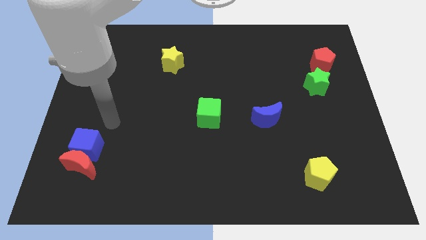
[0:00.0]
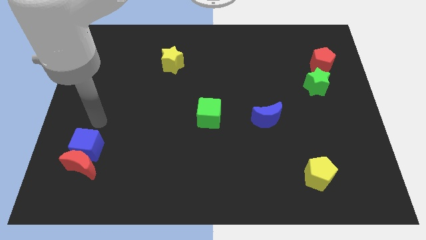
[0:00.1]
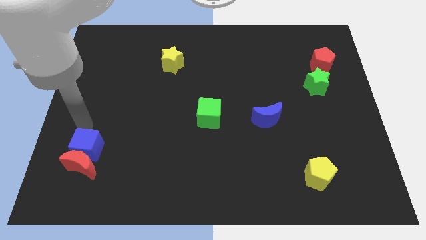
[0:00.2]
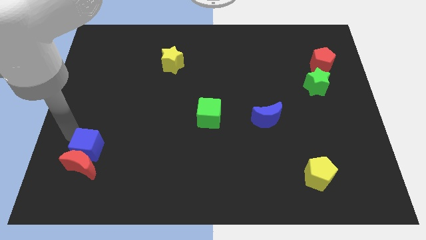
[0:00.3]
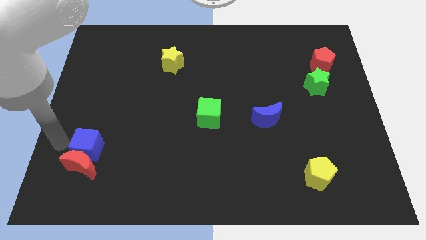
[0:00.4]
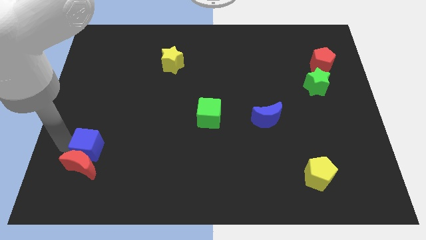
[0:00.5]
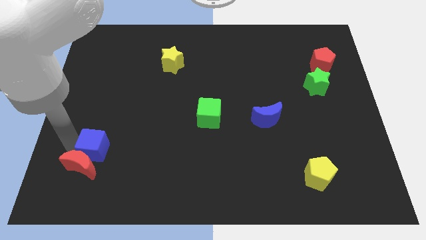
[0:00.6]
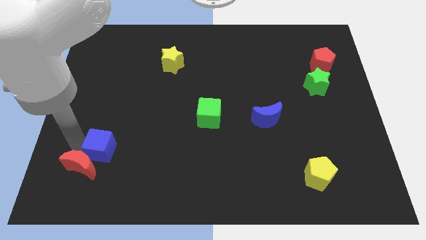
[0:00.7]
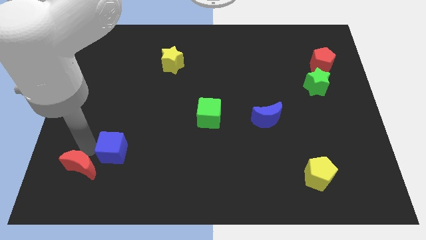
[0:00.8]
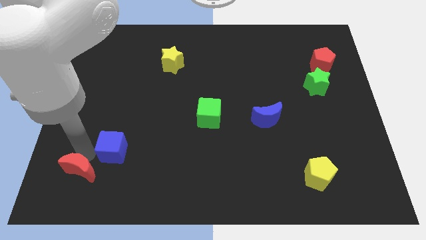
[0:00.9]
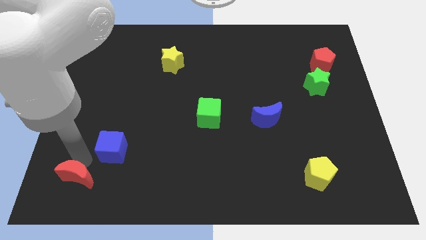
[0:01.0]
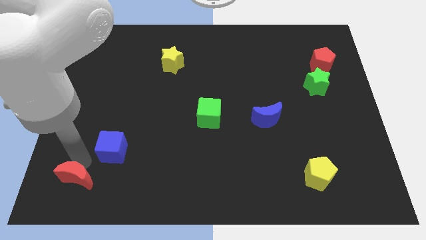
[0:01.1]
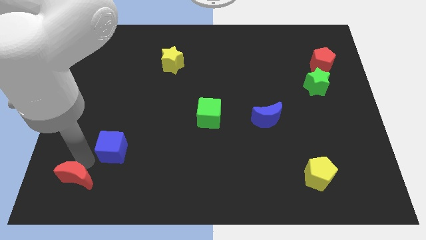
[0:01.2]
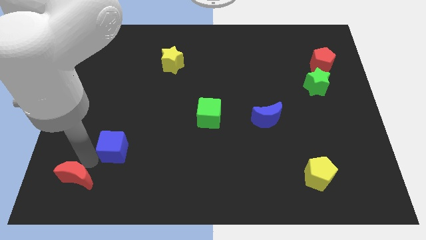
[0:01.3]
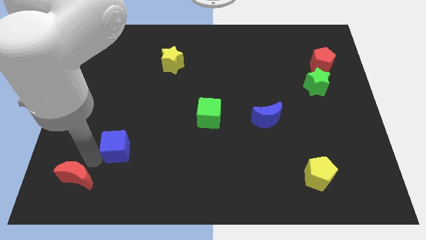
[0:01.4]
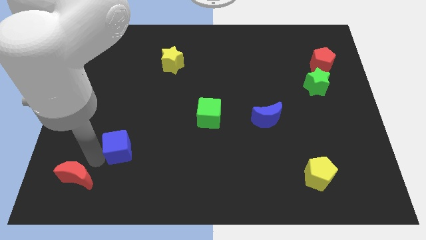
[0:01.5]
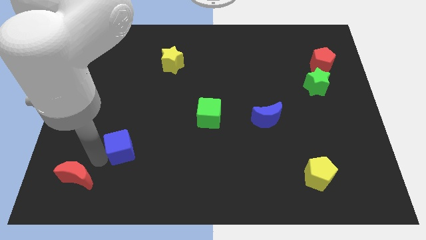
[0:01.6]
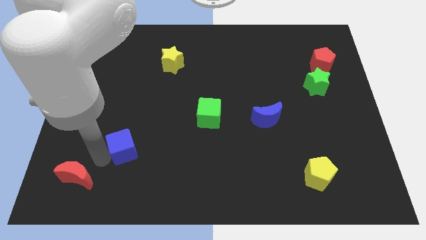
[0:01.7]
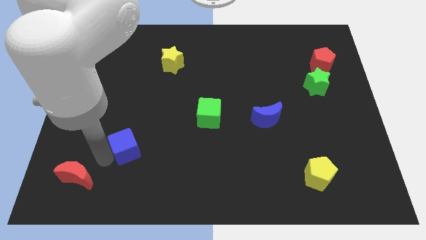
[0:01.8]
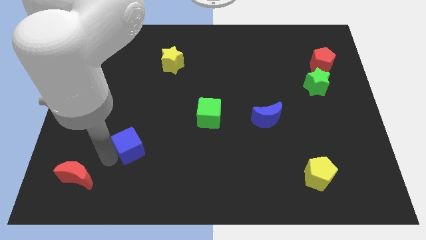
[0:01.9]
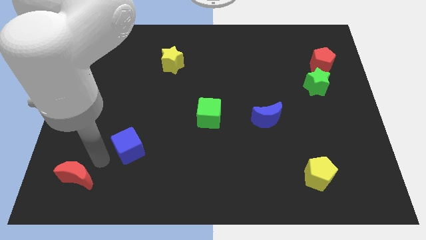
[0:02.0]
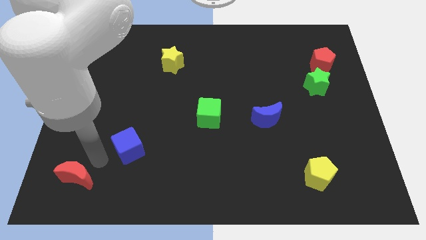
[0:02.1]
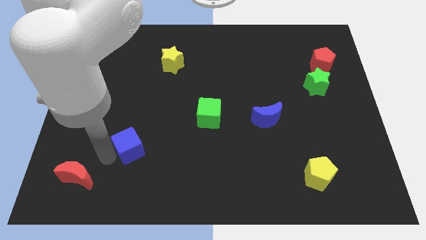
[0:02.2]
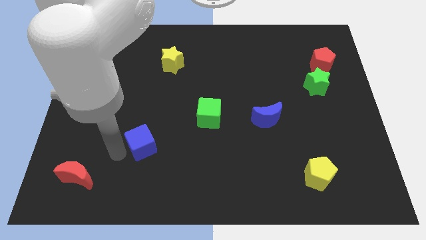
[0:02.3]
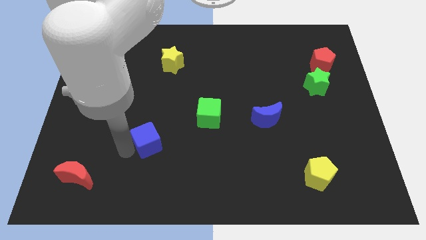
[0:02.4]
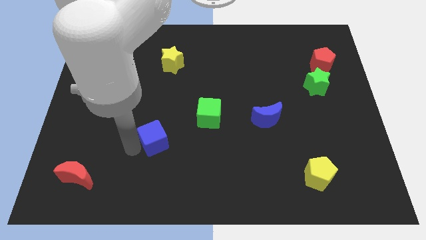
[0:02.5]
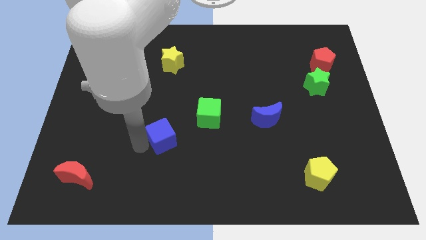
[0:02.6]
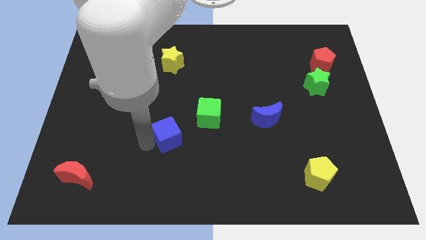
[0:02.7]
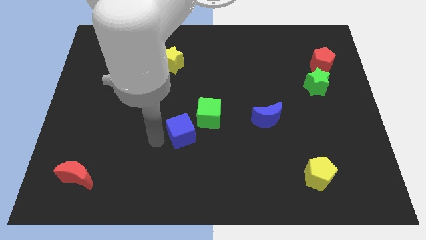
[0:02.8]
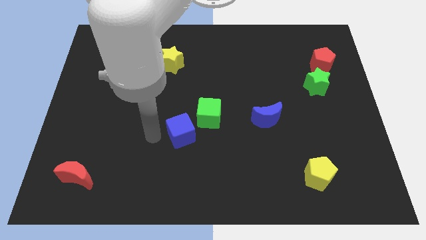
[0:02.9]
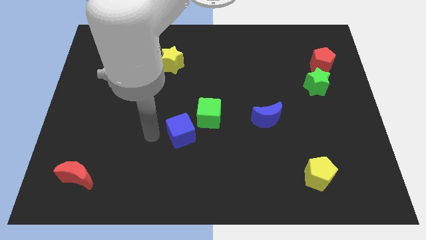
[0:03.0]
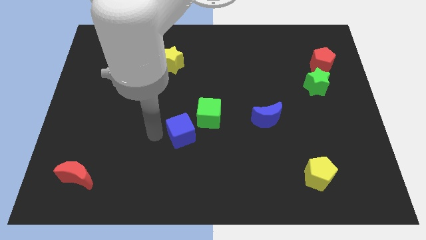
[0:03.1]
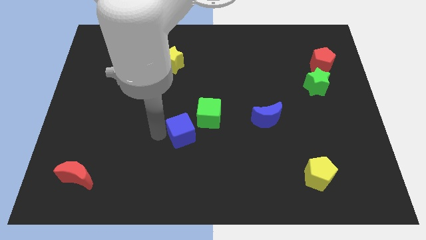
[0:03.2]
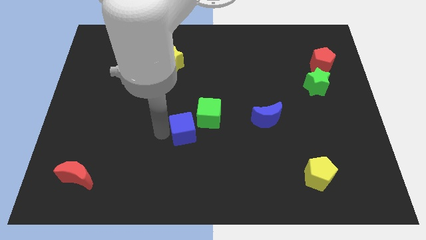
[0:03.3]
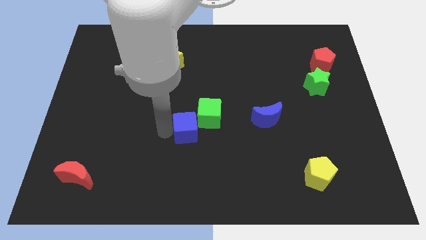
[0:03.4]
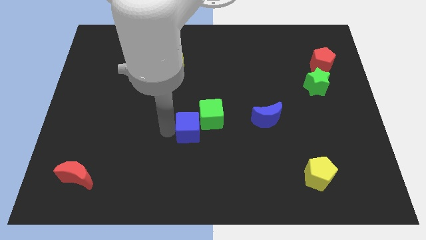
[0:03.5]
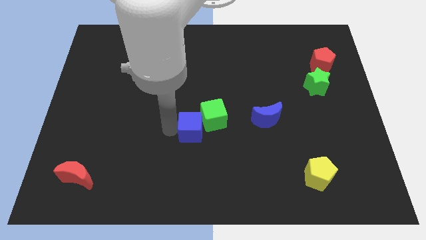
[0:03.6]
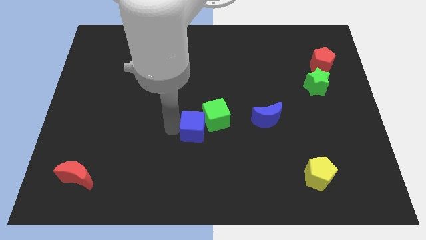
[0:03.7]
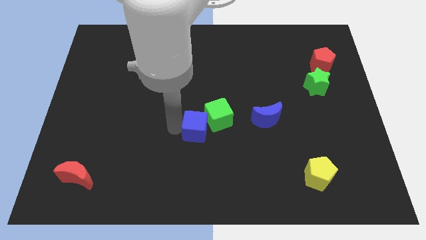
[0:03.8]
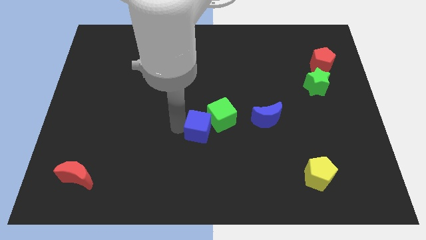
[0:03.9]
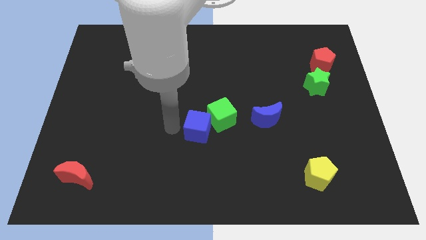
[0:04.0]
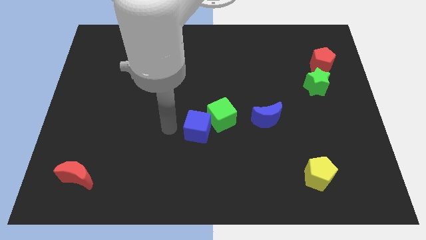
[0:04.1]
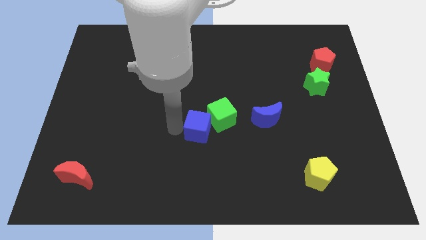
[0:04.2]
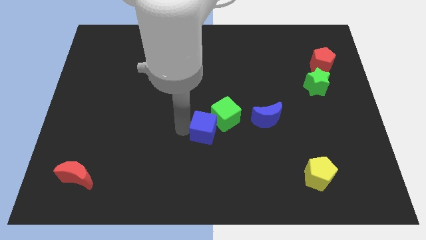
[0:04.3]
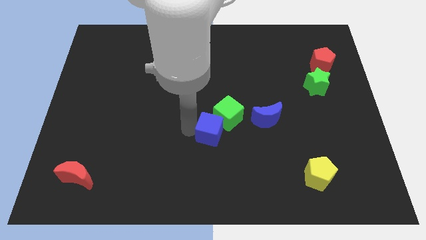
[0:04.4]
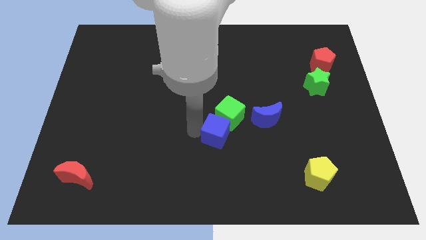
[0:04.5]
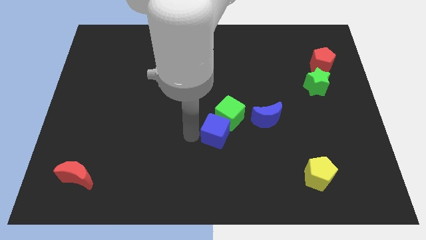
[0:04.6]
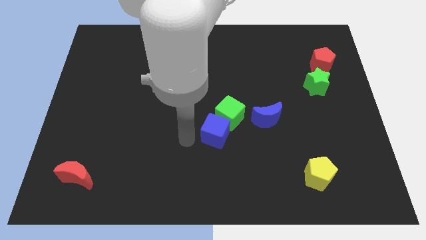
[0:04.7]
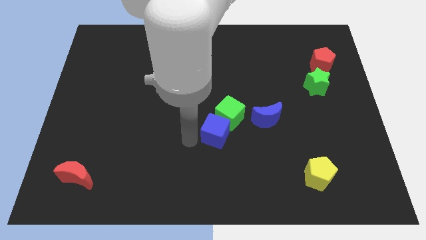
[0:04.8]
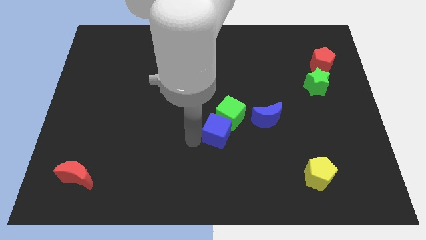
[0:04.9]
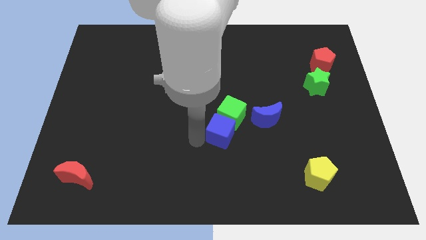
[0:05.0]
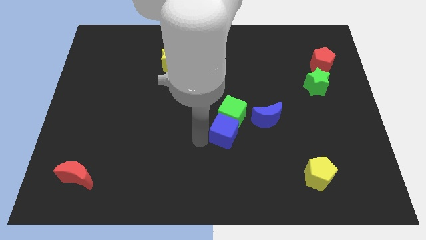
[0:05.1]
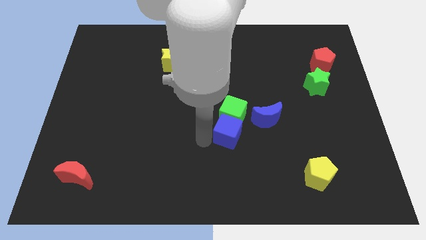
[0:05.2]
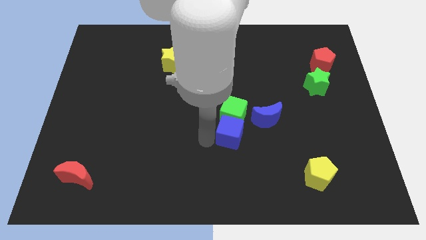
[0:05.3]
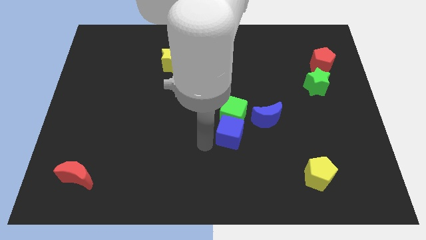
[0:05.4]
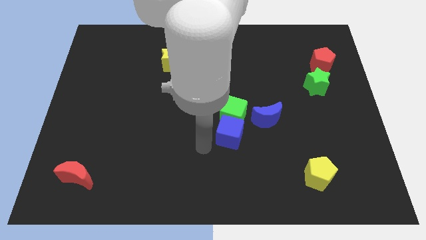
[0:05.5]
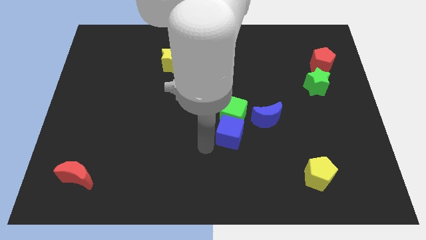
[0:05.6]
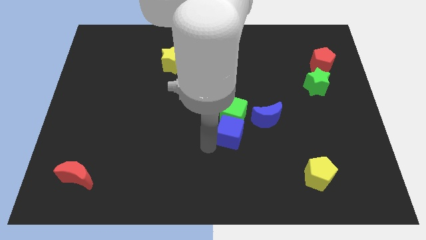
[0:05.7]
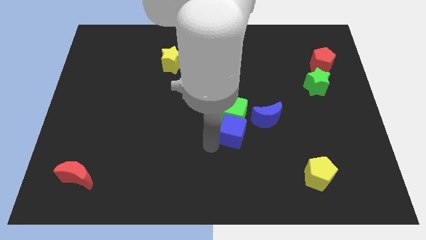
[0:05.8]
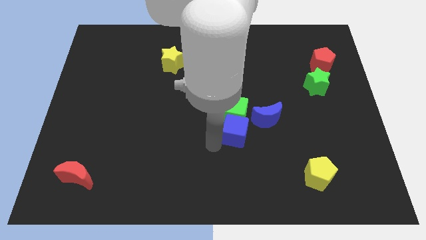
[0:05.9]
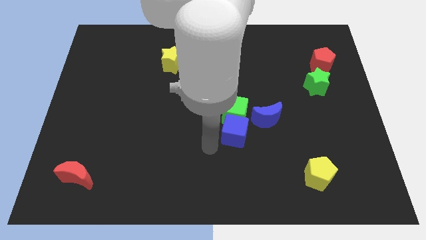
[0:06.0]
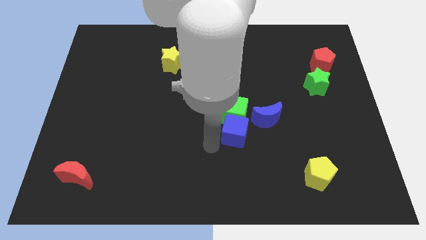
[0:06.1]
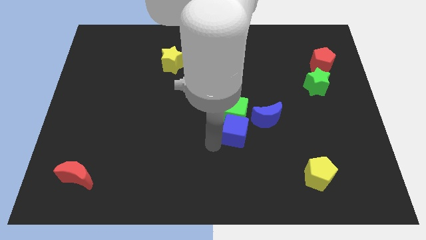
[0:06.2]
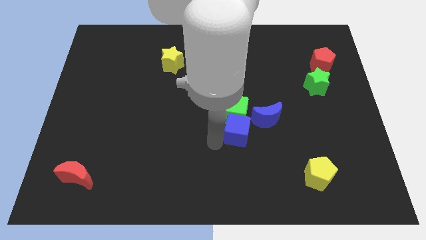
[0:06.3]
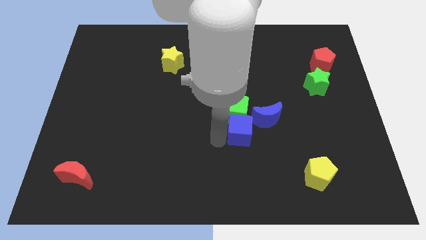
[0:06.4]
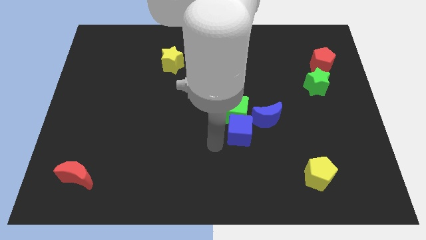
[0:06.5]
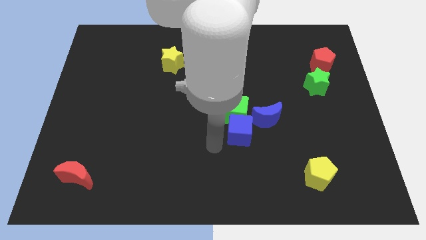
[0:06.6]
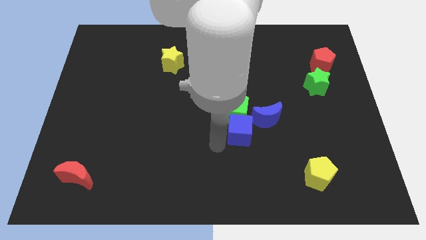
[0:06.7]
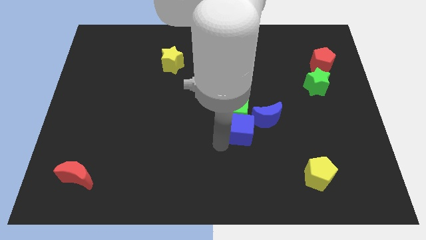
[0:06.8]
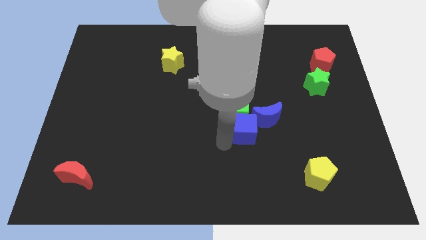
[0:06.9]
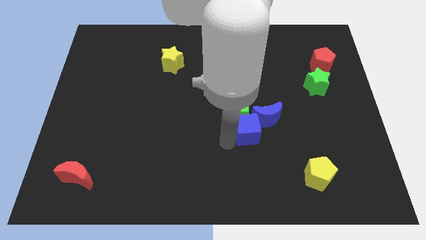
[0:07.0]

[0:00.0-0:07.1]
move the blue cube towards the blue moon

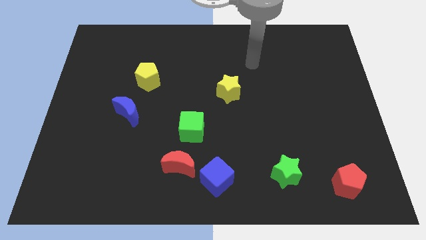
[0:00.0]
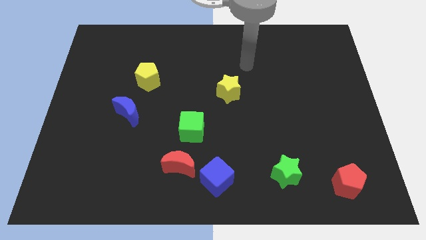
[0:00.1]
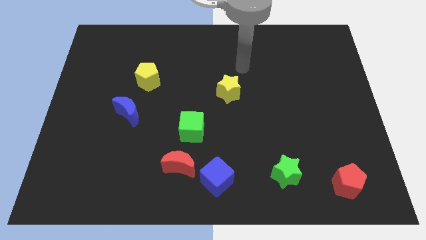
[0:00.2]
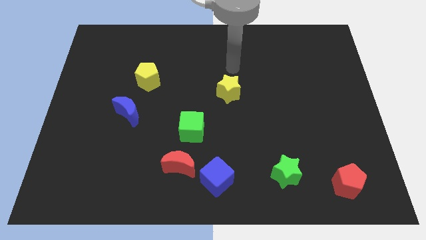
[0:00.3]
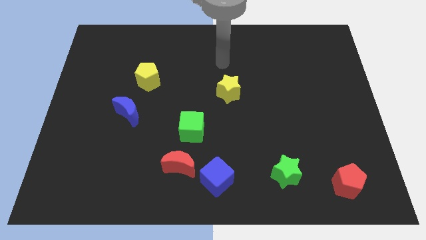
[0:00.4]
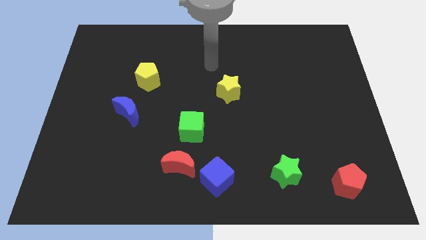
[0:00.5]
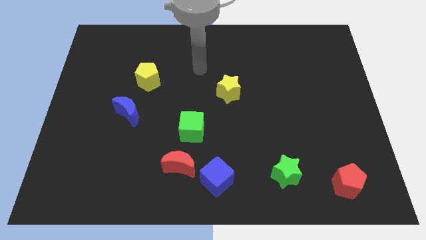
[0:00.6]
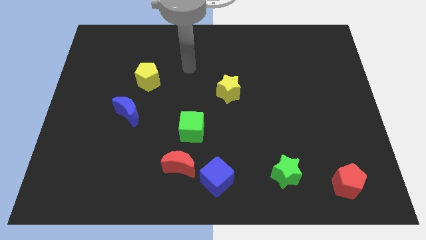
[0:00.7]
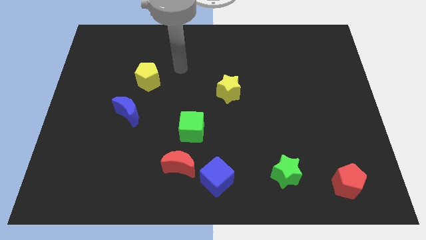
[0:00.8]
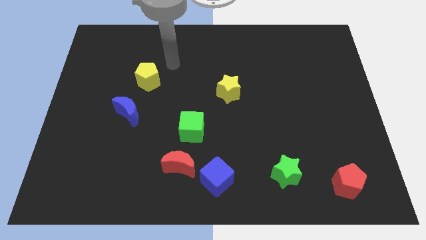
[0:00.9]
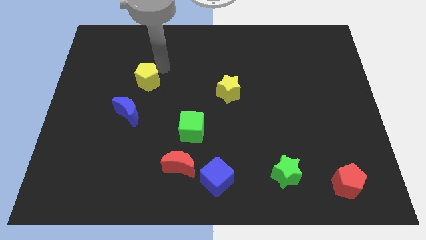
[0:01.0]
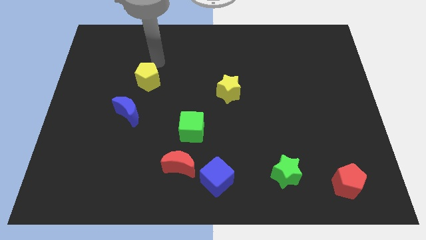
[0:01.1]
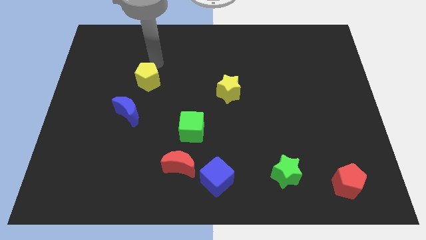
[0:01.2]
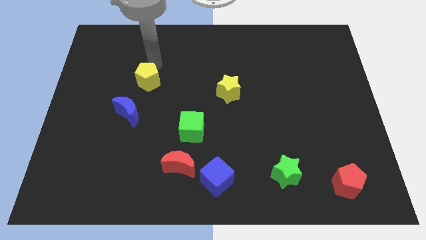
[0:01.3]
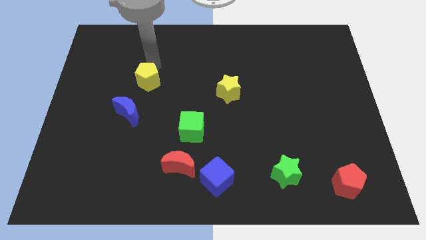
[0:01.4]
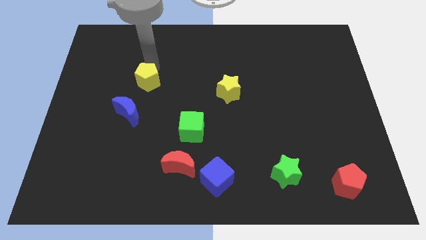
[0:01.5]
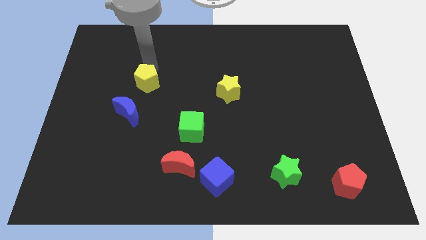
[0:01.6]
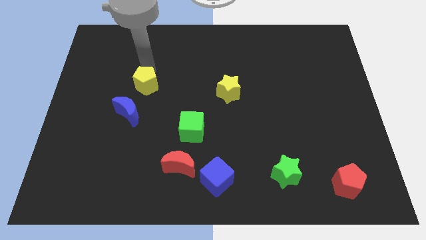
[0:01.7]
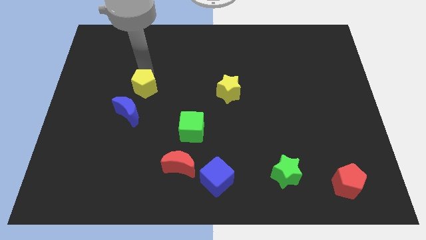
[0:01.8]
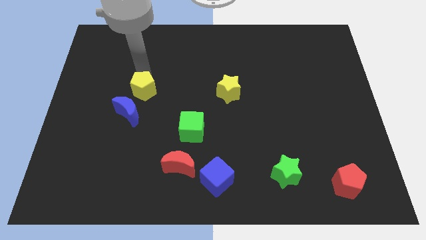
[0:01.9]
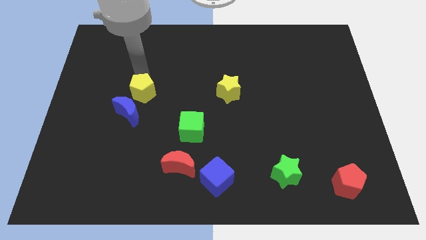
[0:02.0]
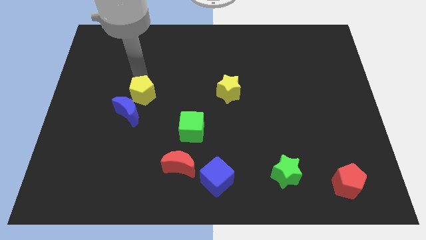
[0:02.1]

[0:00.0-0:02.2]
put the yellow pentagon close to the blue moon
